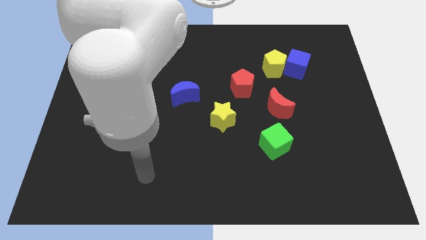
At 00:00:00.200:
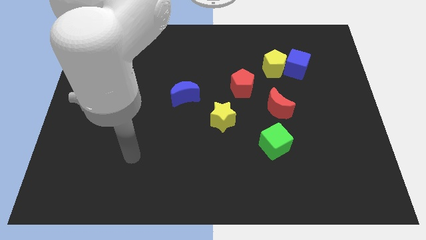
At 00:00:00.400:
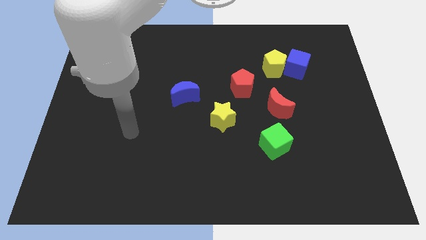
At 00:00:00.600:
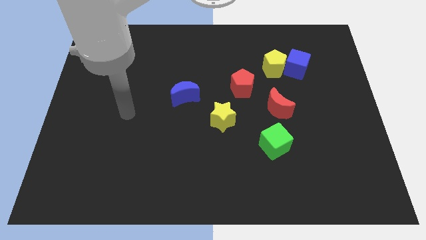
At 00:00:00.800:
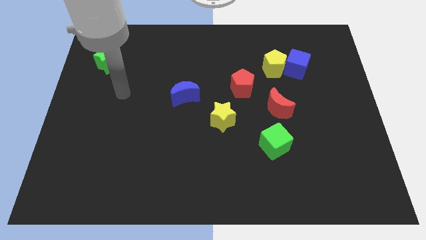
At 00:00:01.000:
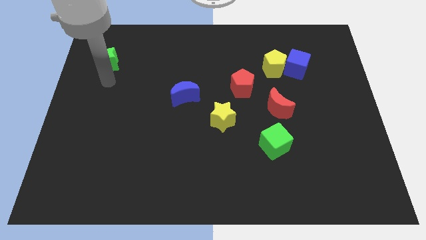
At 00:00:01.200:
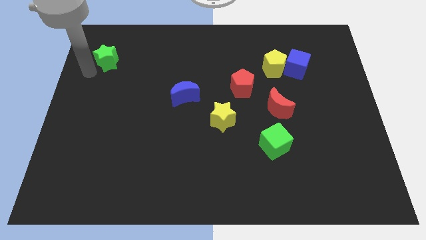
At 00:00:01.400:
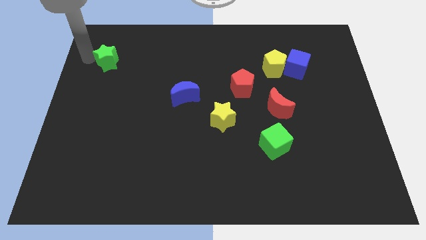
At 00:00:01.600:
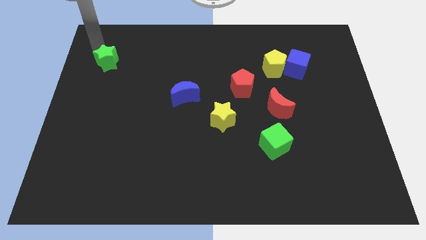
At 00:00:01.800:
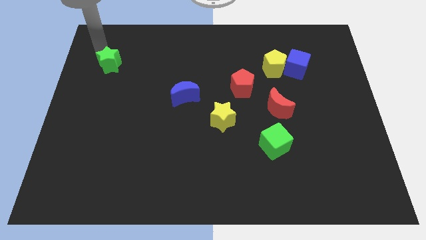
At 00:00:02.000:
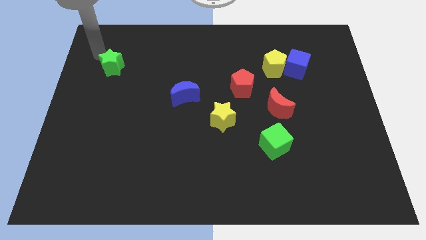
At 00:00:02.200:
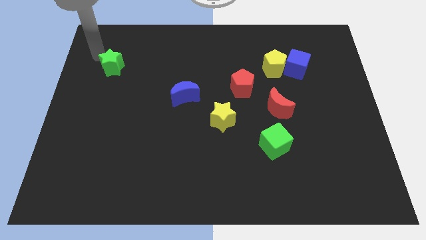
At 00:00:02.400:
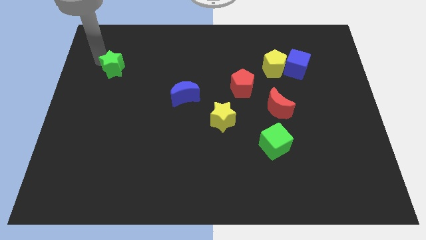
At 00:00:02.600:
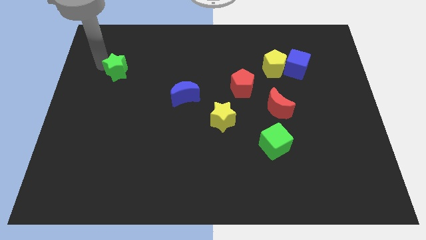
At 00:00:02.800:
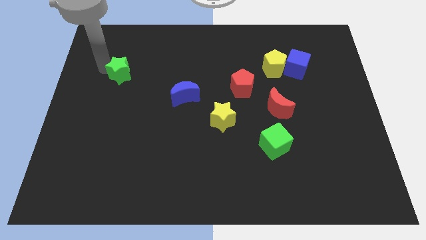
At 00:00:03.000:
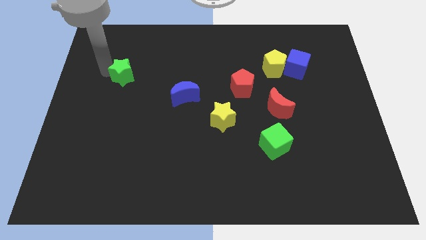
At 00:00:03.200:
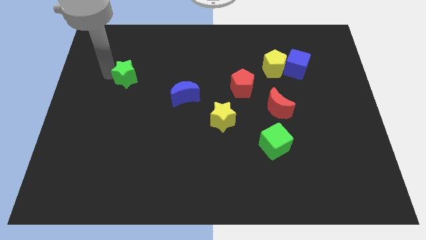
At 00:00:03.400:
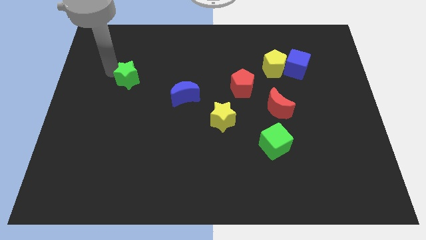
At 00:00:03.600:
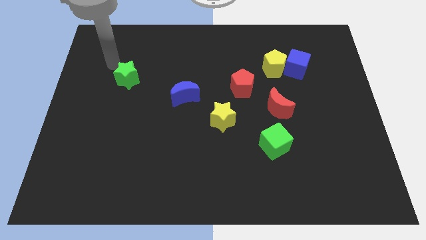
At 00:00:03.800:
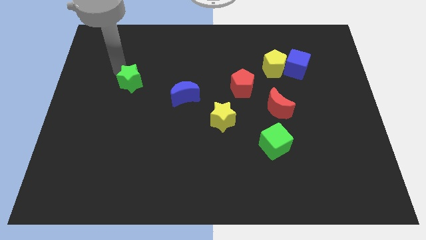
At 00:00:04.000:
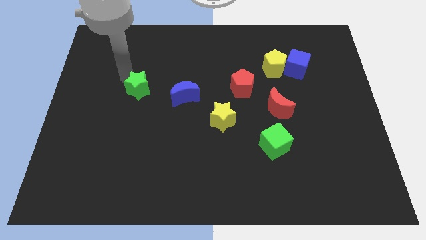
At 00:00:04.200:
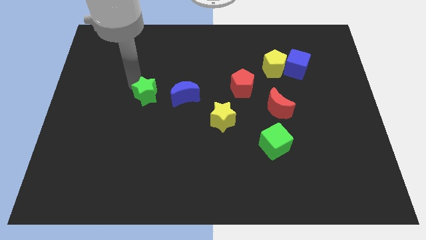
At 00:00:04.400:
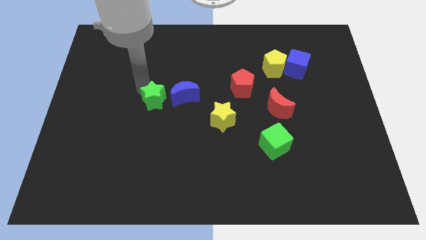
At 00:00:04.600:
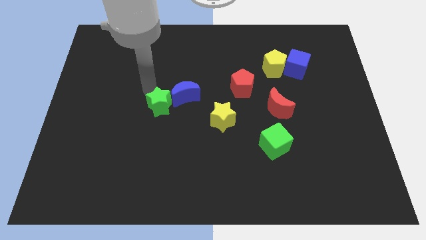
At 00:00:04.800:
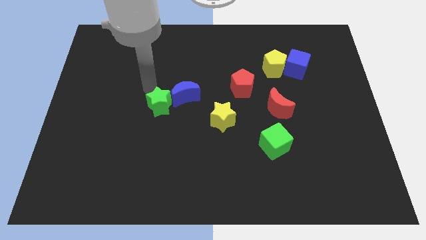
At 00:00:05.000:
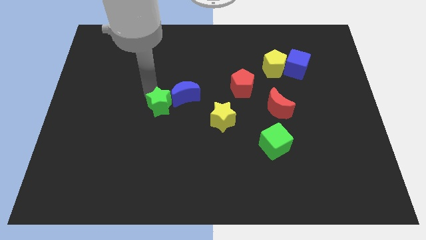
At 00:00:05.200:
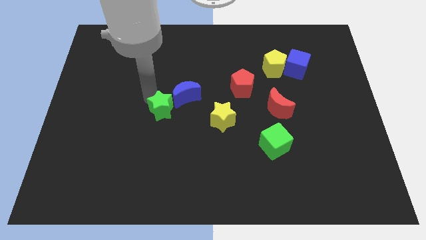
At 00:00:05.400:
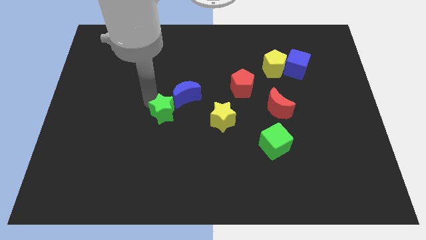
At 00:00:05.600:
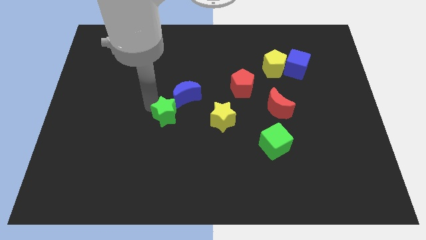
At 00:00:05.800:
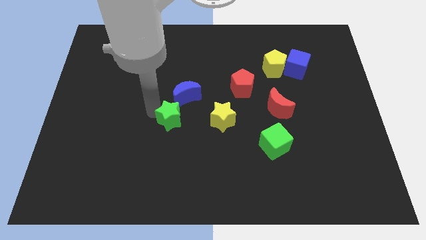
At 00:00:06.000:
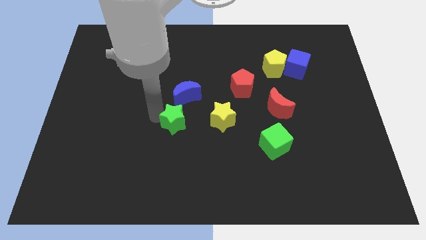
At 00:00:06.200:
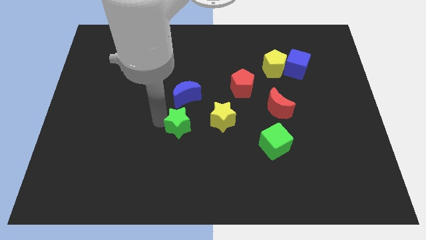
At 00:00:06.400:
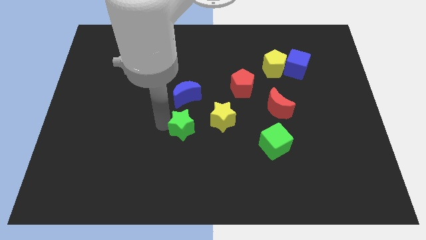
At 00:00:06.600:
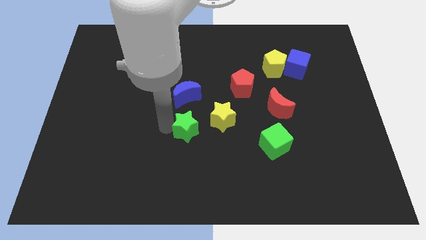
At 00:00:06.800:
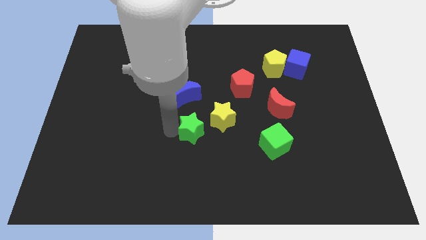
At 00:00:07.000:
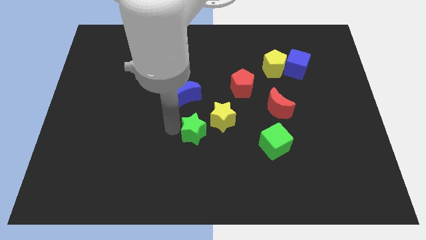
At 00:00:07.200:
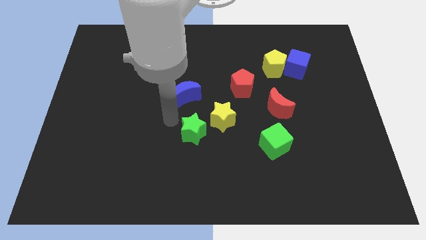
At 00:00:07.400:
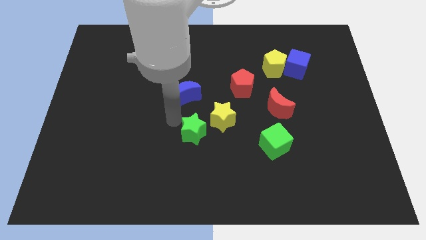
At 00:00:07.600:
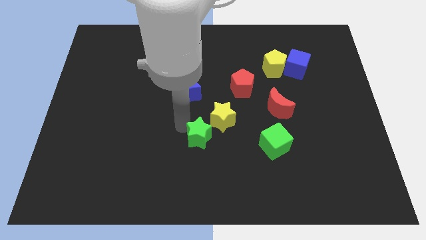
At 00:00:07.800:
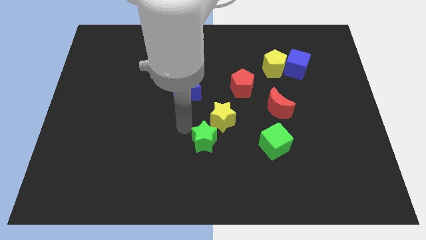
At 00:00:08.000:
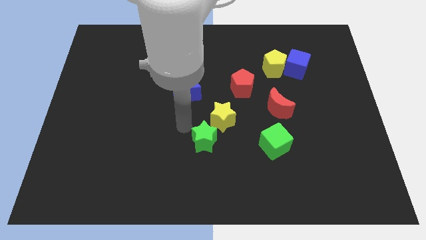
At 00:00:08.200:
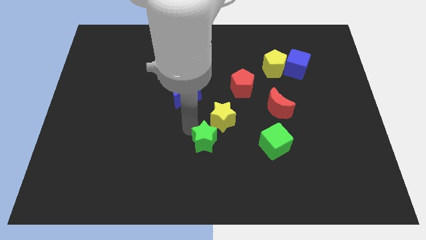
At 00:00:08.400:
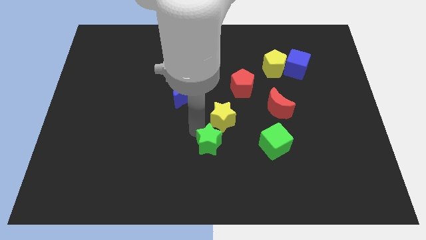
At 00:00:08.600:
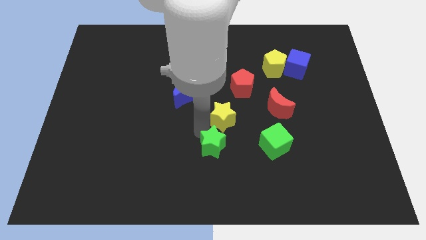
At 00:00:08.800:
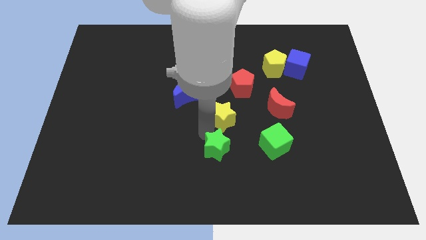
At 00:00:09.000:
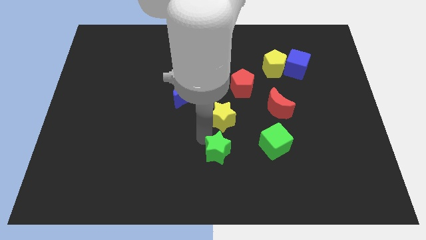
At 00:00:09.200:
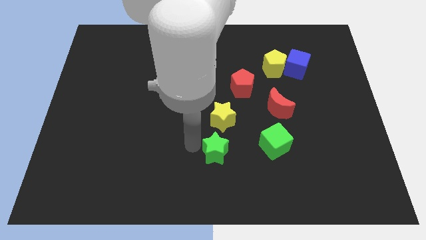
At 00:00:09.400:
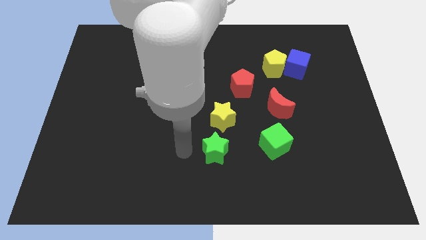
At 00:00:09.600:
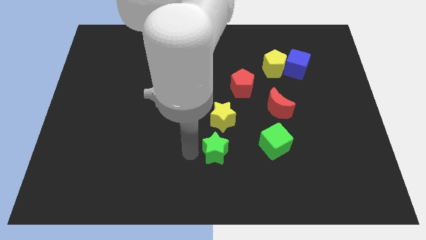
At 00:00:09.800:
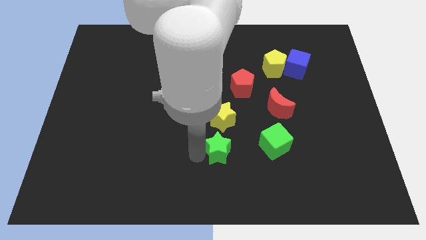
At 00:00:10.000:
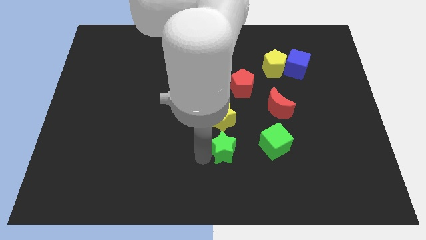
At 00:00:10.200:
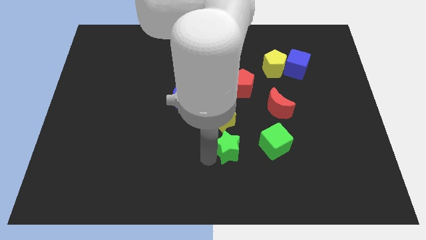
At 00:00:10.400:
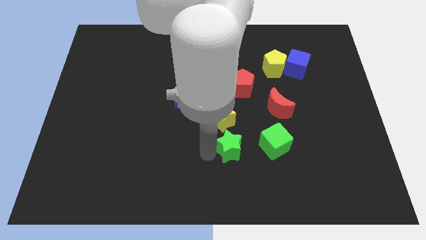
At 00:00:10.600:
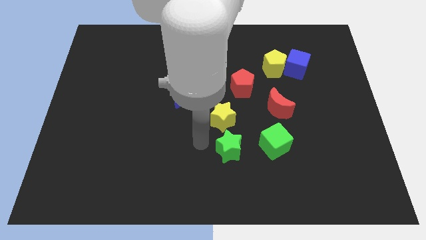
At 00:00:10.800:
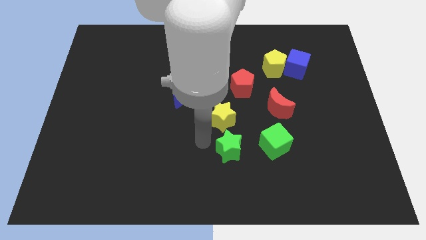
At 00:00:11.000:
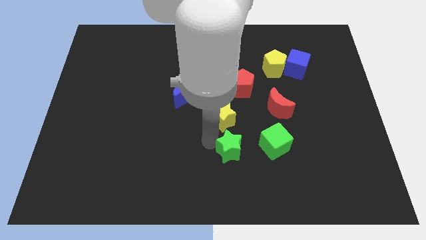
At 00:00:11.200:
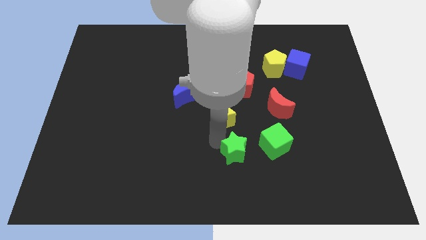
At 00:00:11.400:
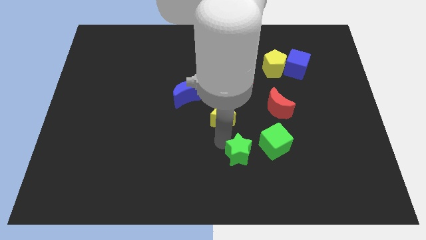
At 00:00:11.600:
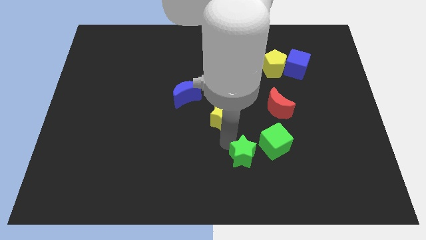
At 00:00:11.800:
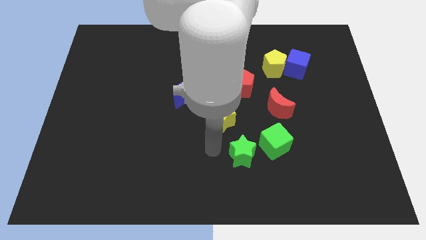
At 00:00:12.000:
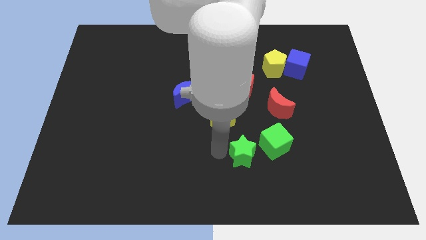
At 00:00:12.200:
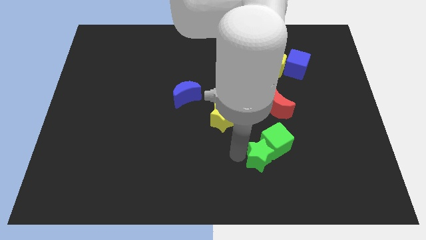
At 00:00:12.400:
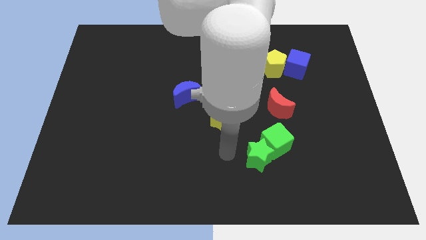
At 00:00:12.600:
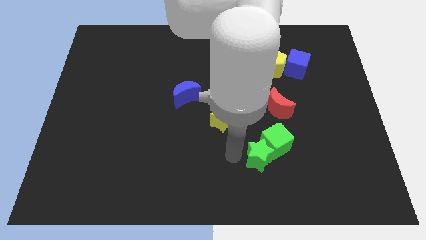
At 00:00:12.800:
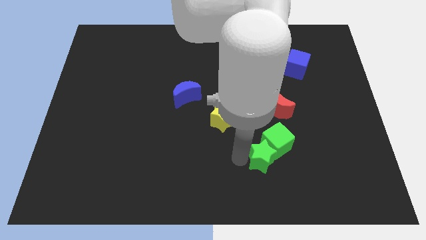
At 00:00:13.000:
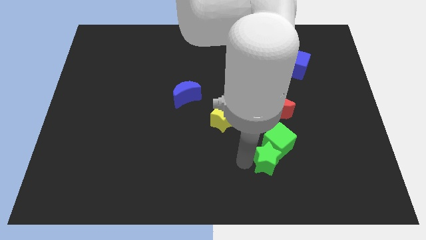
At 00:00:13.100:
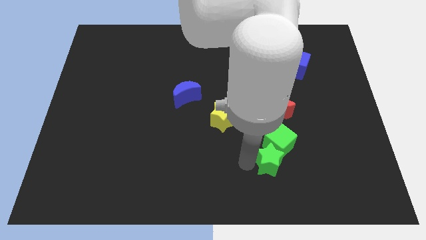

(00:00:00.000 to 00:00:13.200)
push the green star to the bottom side of the red moon
